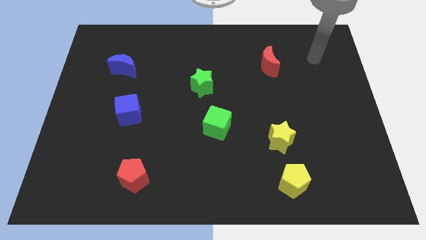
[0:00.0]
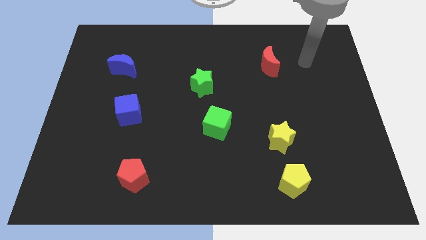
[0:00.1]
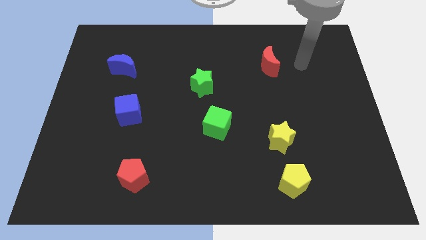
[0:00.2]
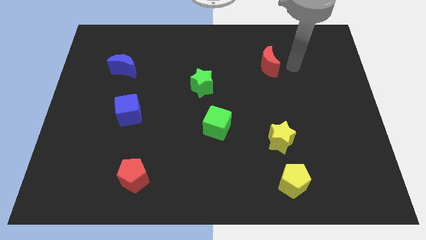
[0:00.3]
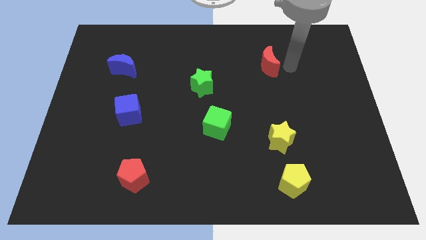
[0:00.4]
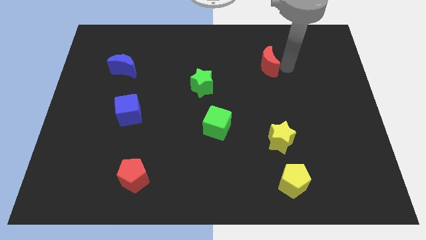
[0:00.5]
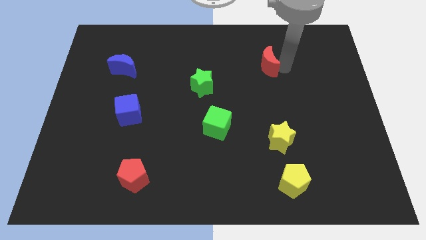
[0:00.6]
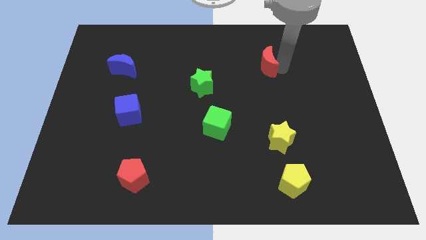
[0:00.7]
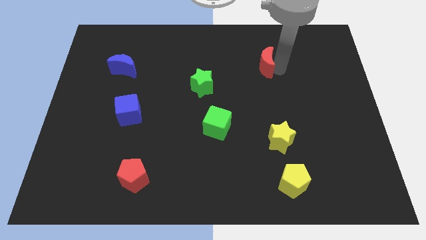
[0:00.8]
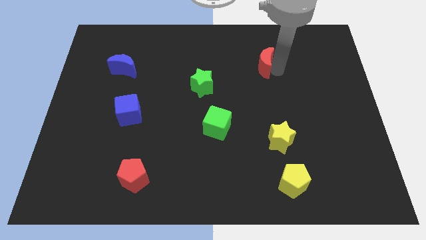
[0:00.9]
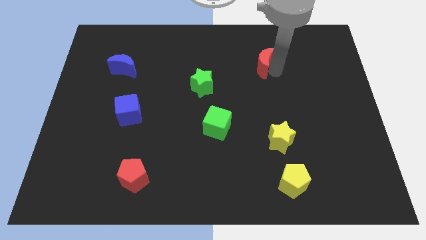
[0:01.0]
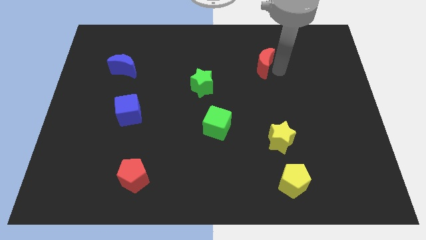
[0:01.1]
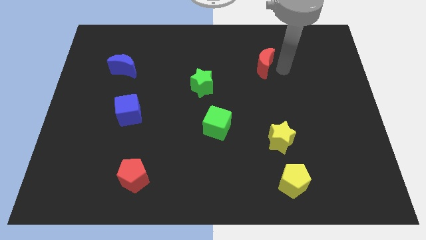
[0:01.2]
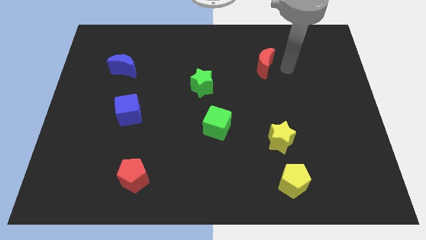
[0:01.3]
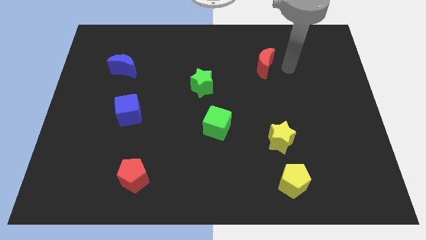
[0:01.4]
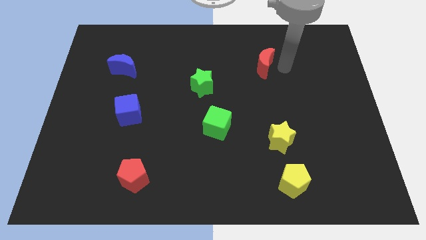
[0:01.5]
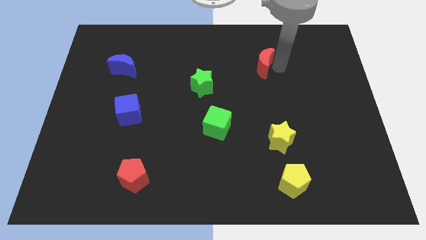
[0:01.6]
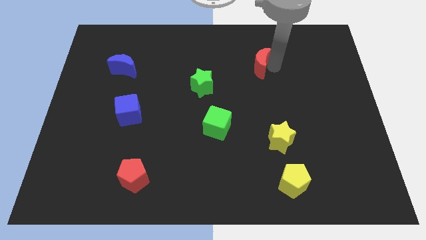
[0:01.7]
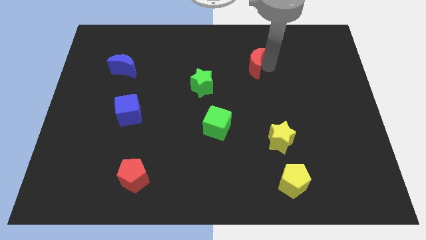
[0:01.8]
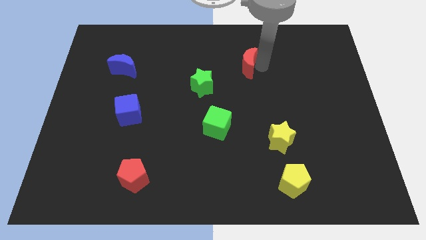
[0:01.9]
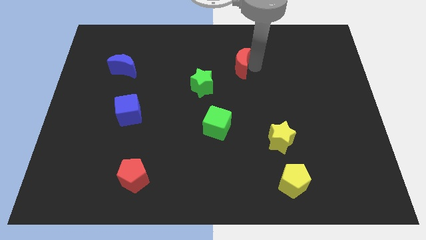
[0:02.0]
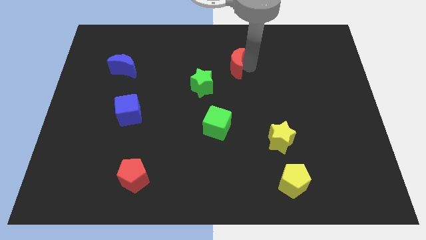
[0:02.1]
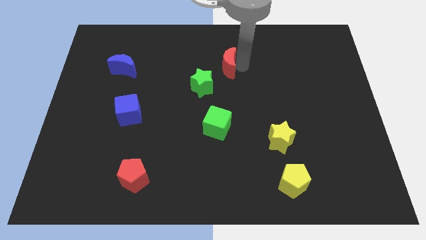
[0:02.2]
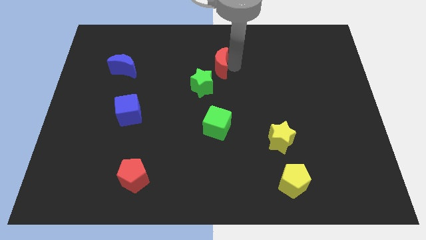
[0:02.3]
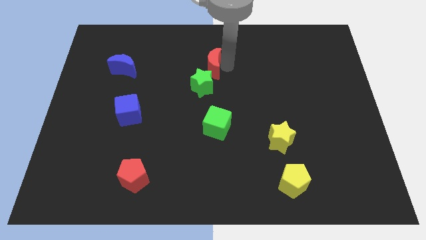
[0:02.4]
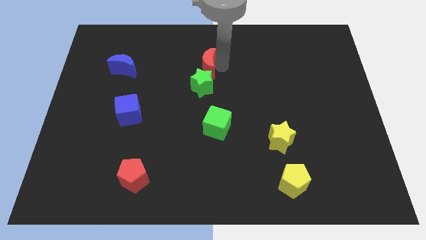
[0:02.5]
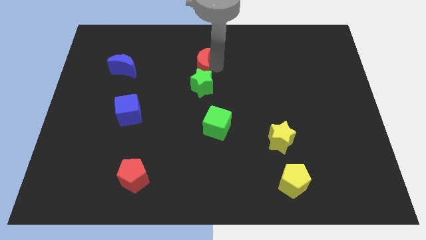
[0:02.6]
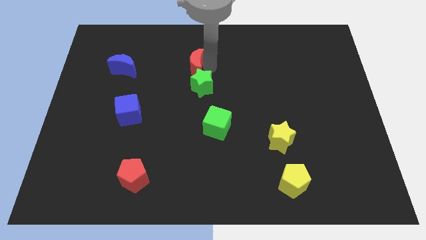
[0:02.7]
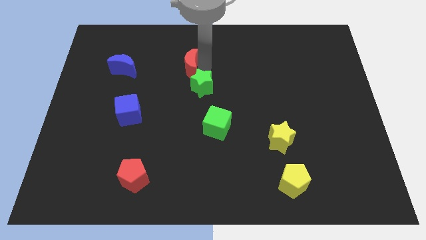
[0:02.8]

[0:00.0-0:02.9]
push the red moon to the left

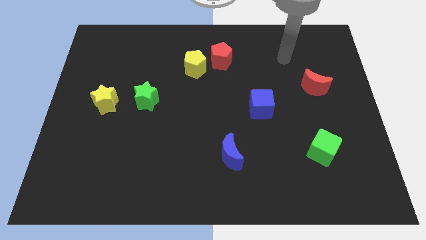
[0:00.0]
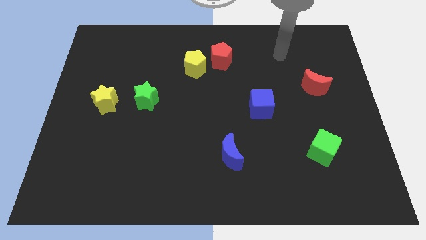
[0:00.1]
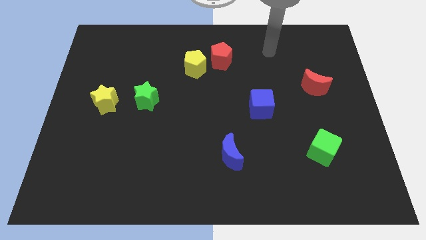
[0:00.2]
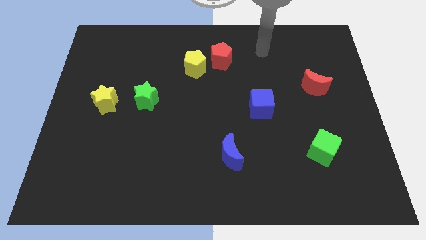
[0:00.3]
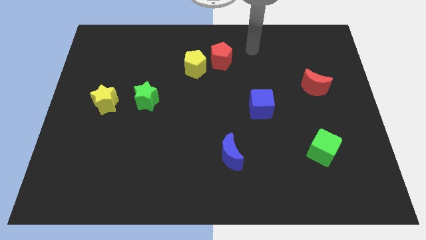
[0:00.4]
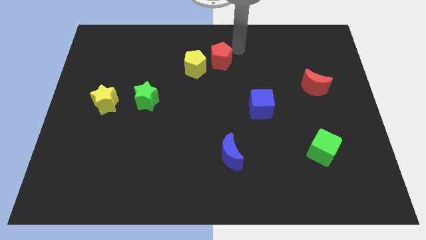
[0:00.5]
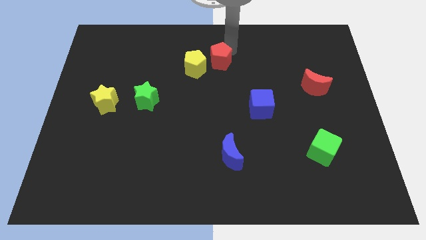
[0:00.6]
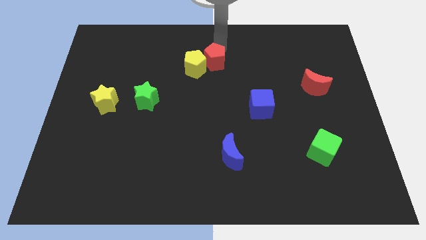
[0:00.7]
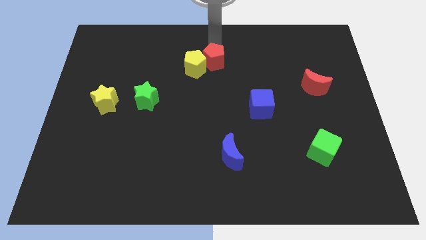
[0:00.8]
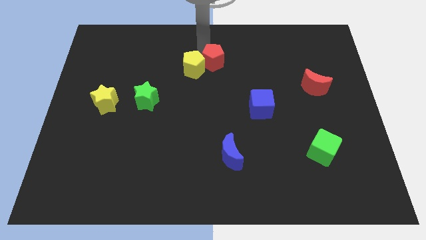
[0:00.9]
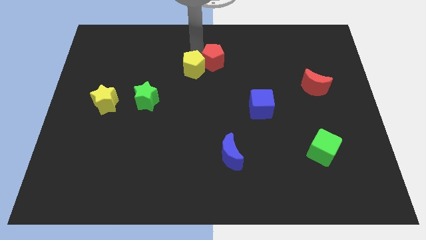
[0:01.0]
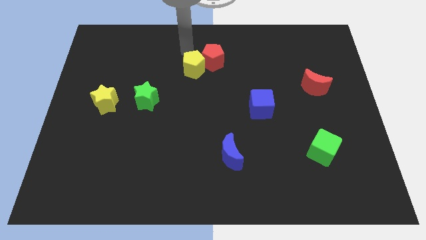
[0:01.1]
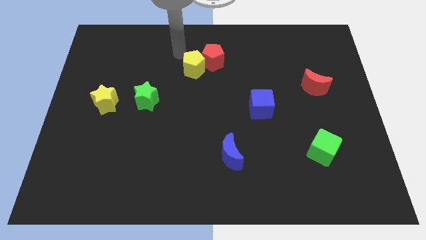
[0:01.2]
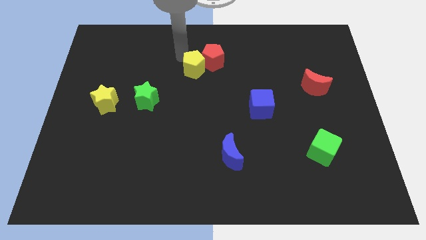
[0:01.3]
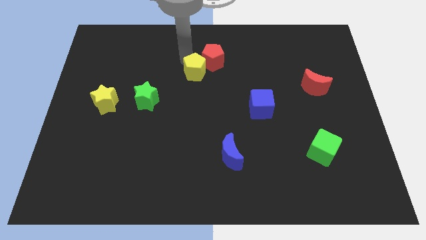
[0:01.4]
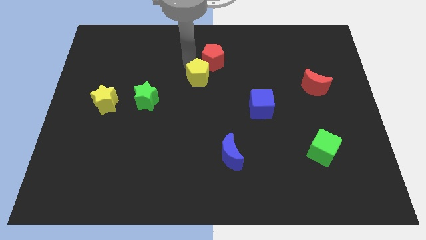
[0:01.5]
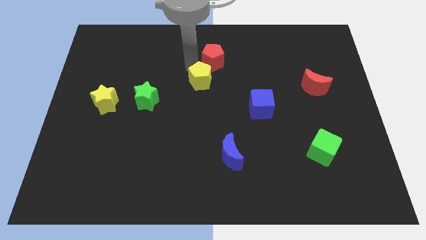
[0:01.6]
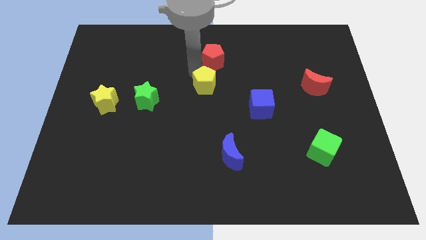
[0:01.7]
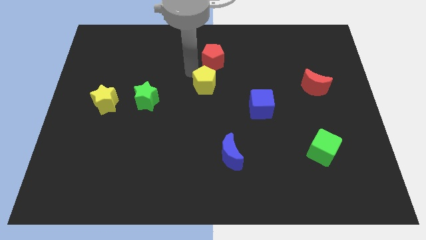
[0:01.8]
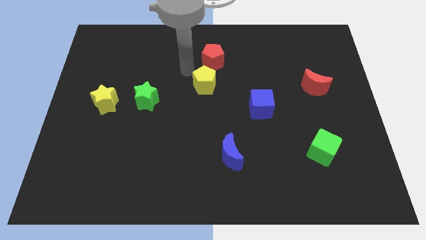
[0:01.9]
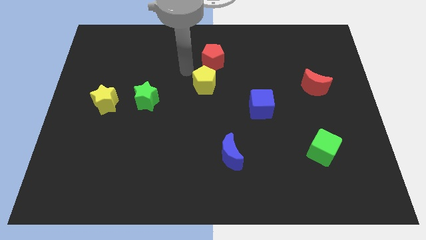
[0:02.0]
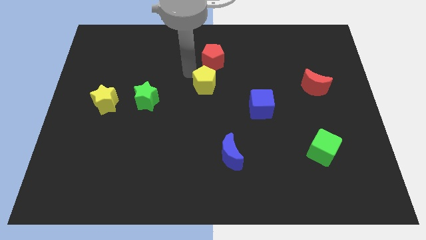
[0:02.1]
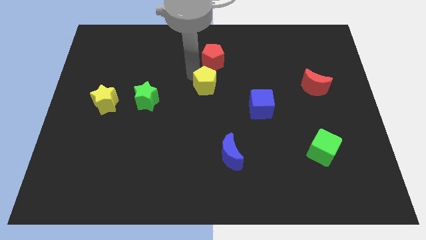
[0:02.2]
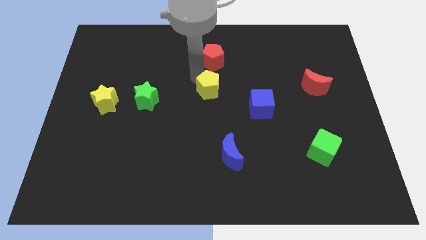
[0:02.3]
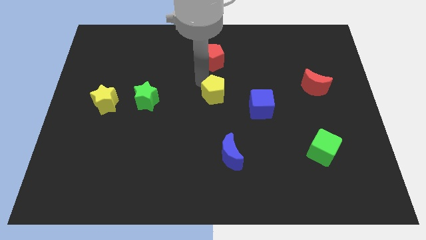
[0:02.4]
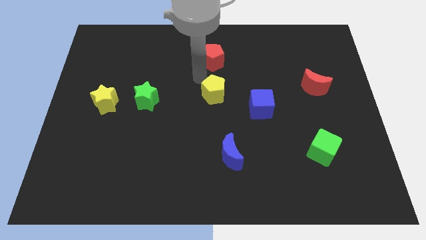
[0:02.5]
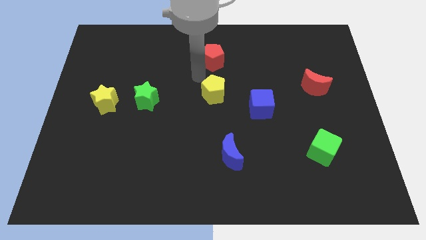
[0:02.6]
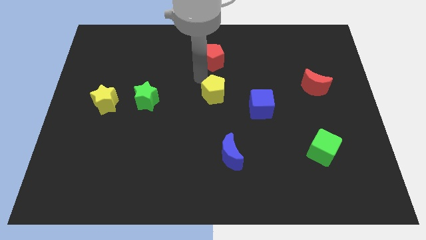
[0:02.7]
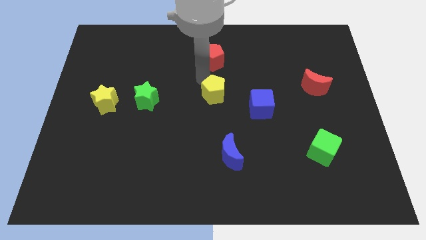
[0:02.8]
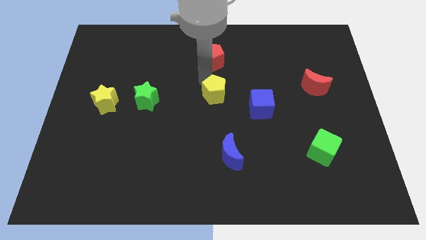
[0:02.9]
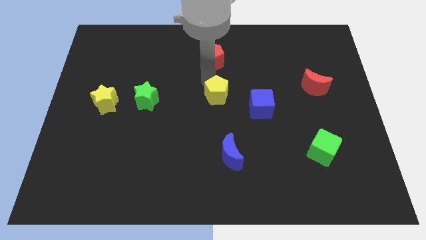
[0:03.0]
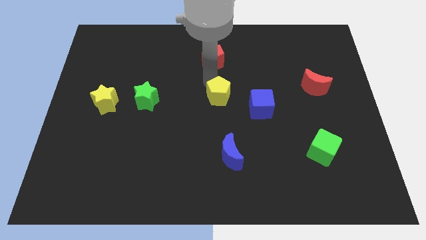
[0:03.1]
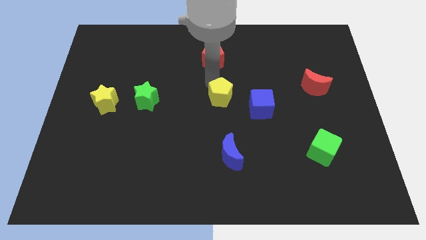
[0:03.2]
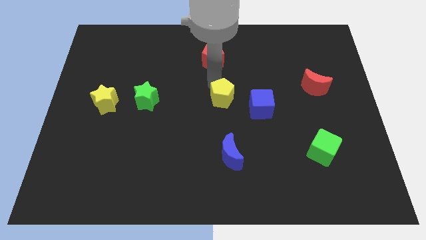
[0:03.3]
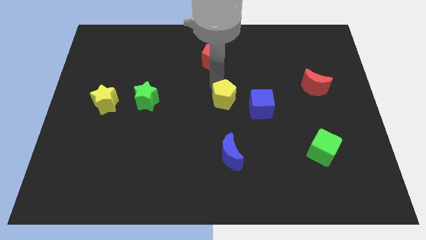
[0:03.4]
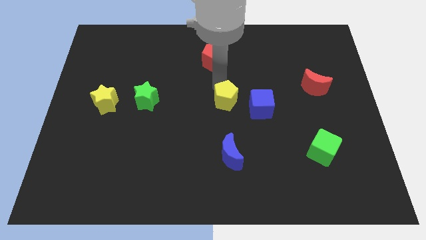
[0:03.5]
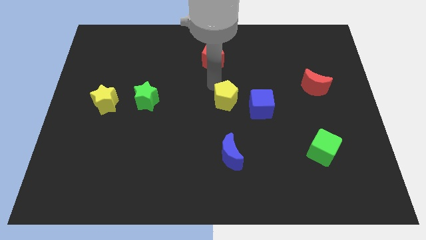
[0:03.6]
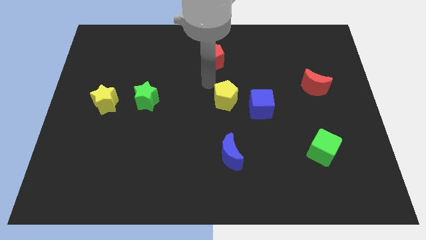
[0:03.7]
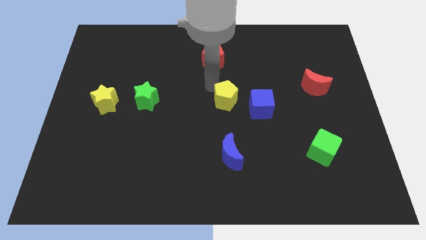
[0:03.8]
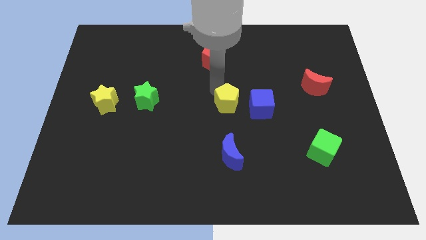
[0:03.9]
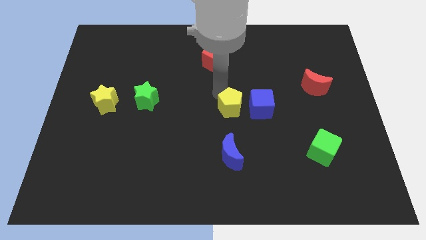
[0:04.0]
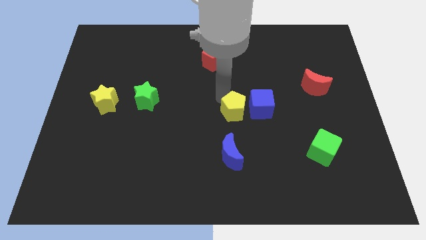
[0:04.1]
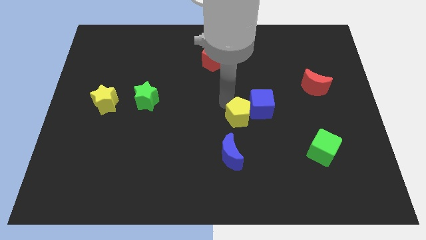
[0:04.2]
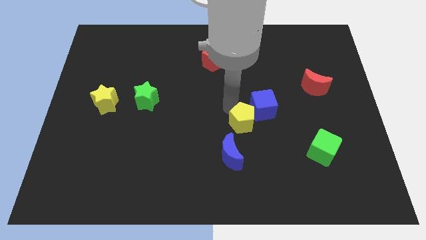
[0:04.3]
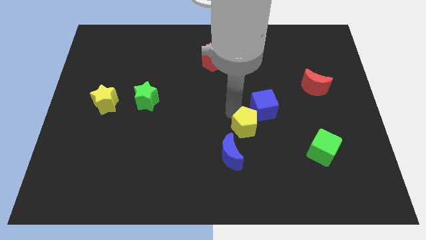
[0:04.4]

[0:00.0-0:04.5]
move the yellow pentagon down and then to the right

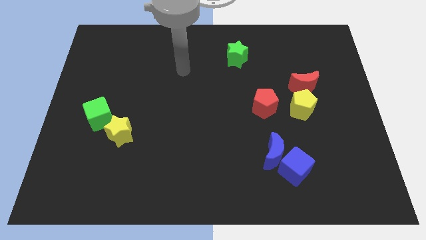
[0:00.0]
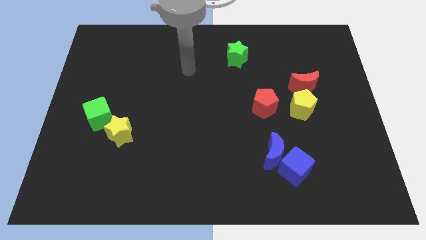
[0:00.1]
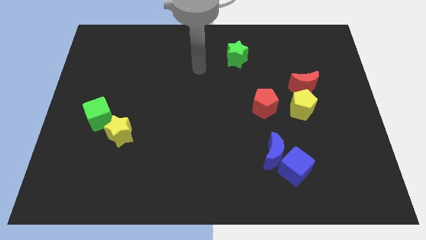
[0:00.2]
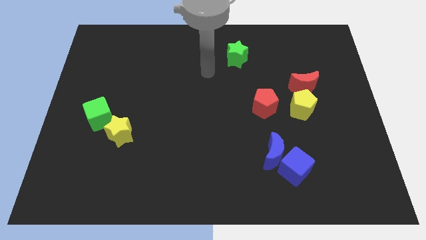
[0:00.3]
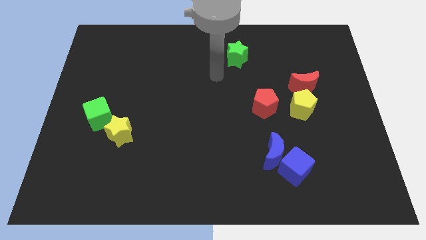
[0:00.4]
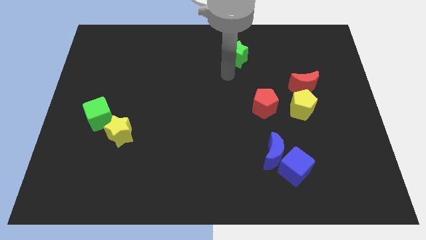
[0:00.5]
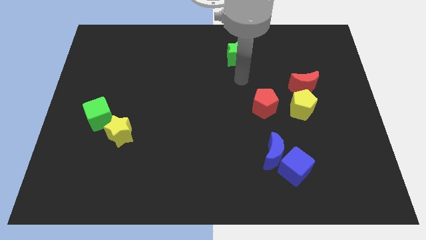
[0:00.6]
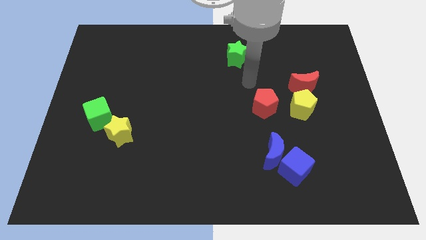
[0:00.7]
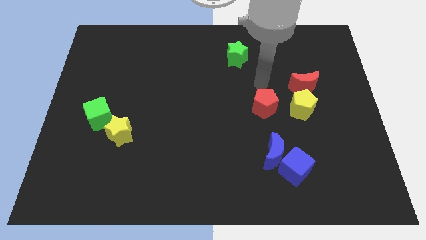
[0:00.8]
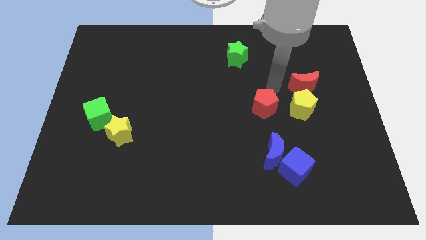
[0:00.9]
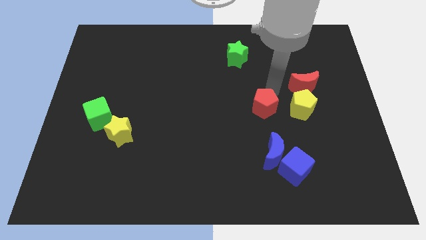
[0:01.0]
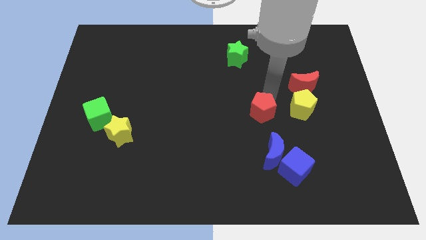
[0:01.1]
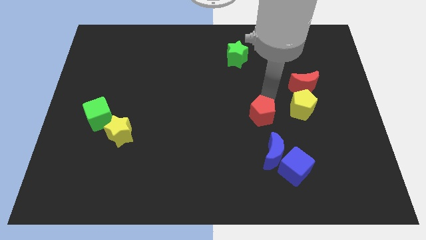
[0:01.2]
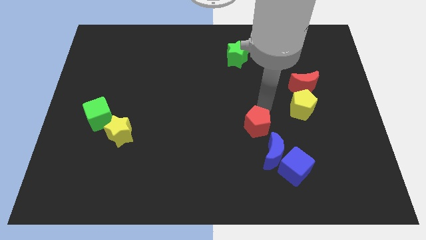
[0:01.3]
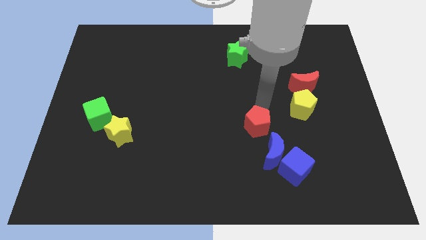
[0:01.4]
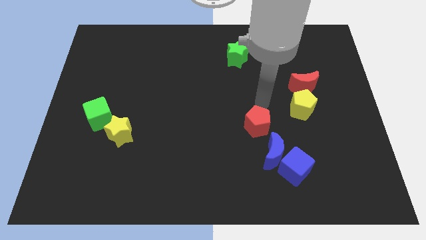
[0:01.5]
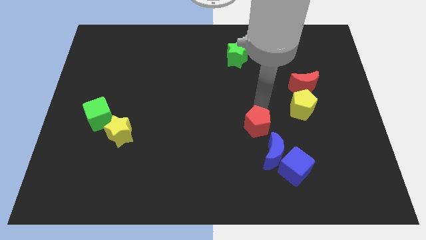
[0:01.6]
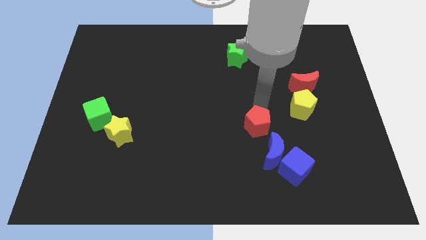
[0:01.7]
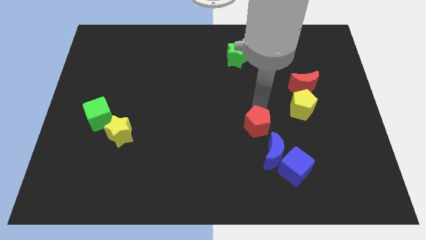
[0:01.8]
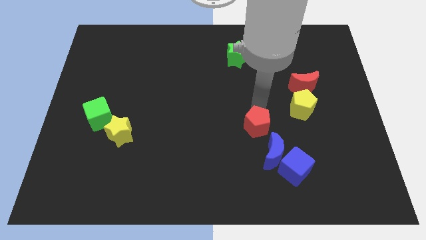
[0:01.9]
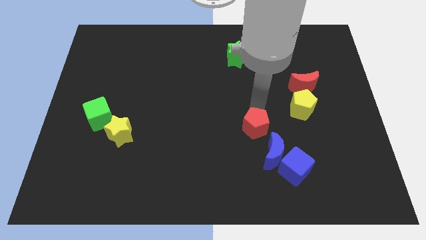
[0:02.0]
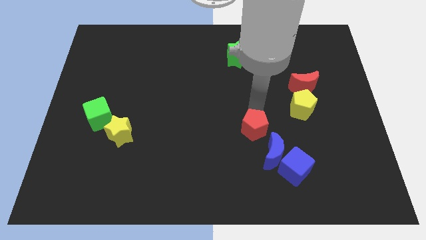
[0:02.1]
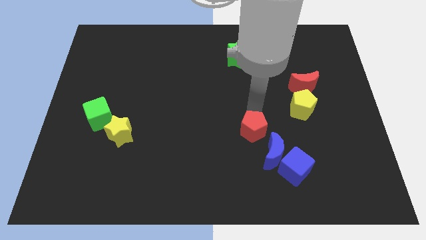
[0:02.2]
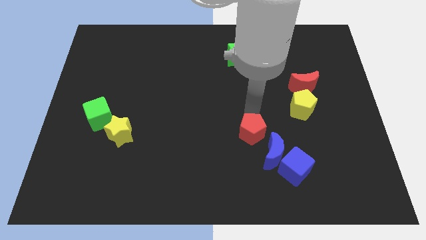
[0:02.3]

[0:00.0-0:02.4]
slightly push the red pentagon down
